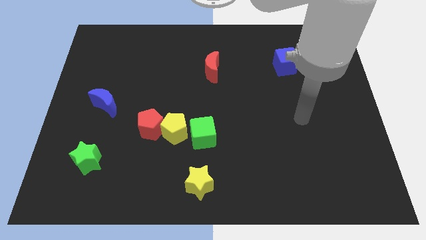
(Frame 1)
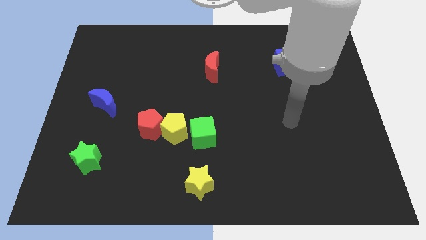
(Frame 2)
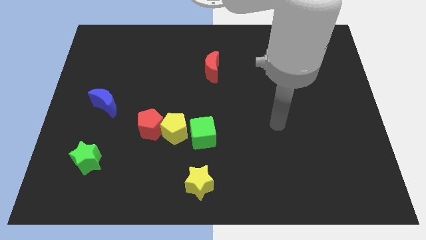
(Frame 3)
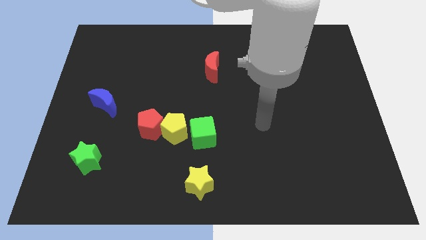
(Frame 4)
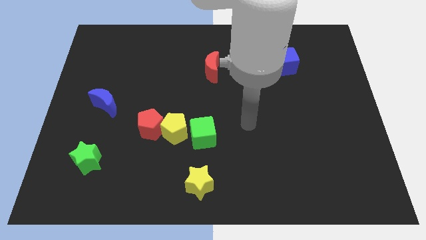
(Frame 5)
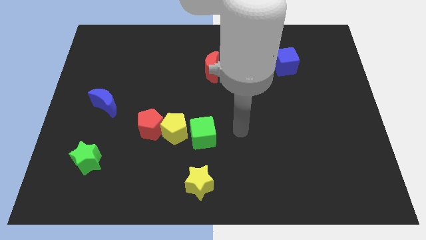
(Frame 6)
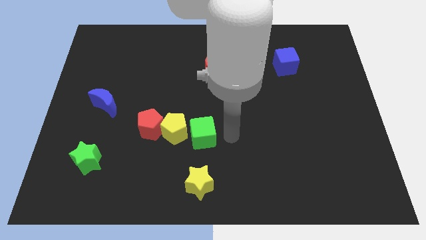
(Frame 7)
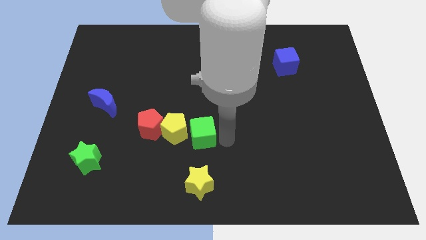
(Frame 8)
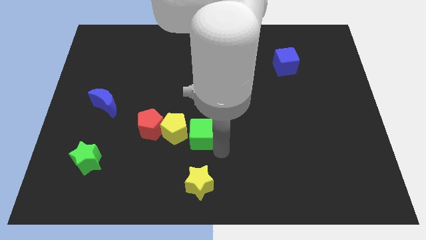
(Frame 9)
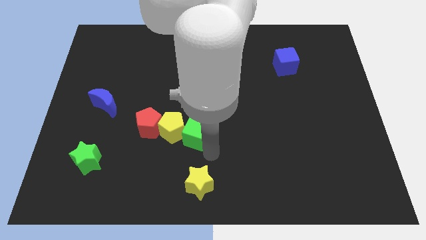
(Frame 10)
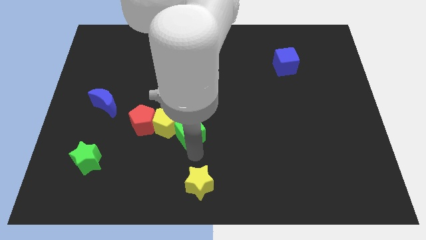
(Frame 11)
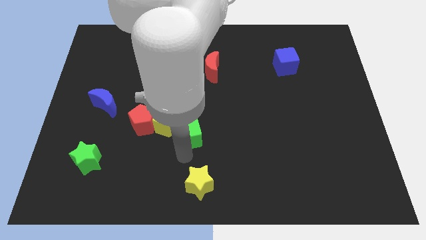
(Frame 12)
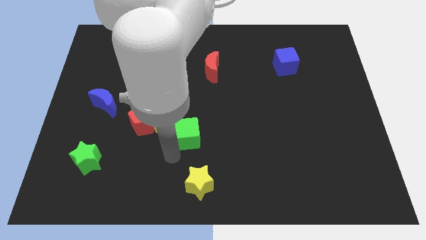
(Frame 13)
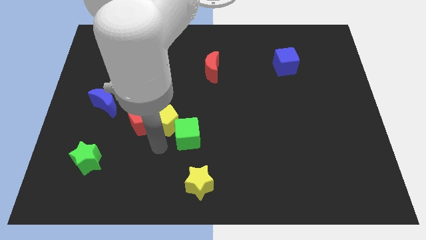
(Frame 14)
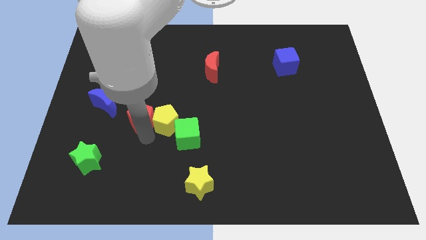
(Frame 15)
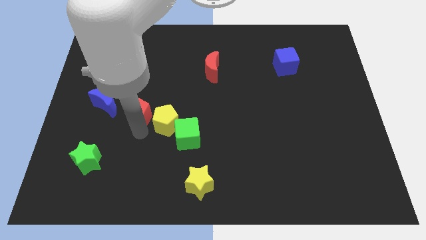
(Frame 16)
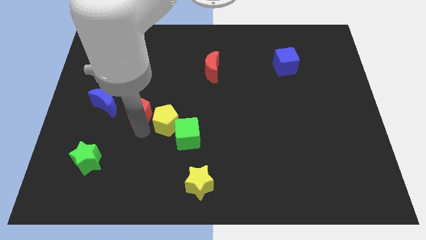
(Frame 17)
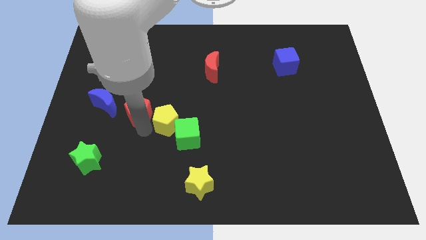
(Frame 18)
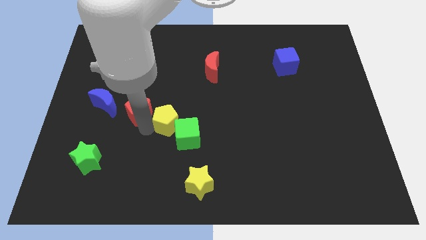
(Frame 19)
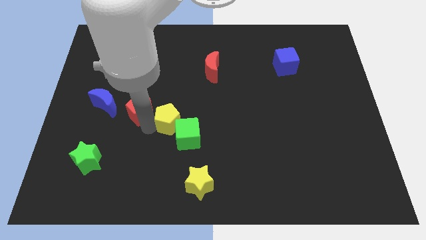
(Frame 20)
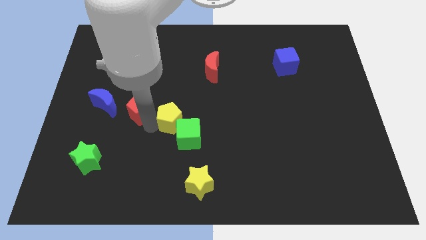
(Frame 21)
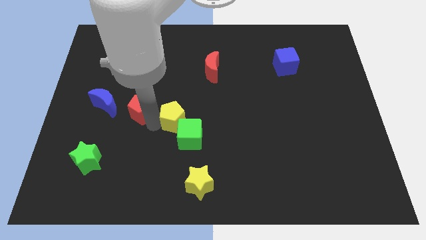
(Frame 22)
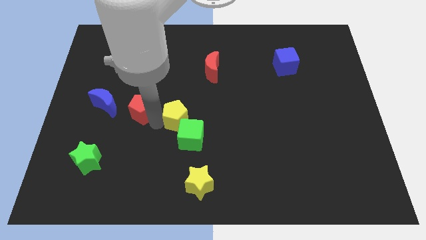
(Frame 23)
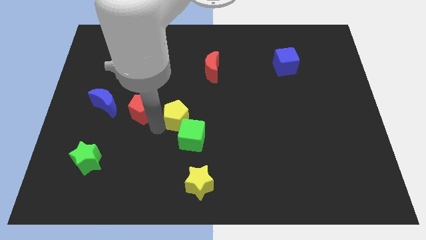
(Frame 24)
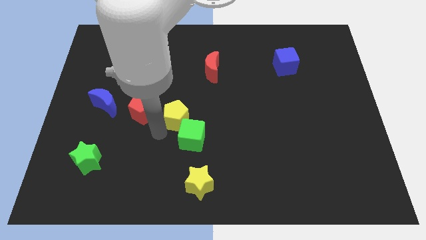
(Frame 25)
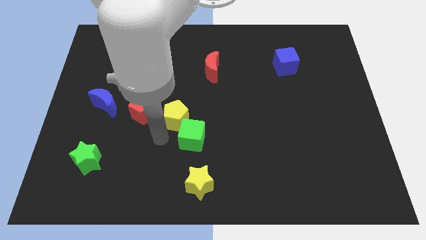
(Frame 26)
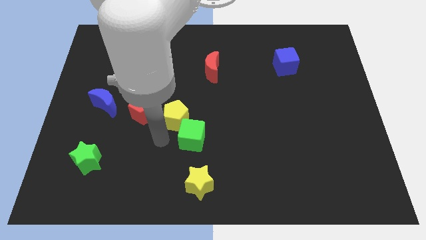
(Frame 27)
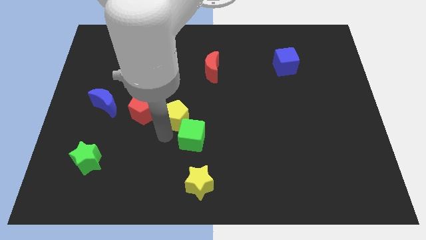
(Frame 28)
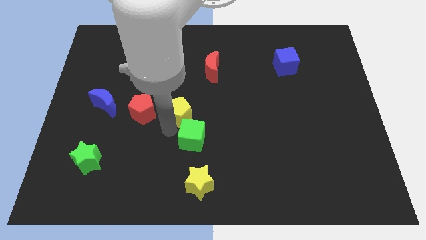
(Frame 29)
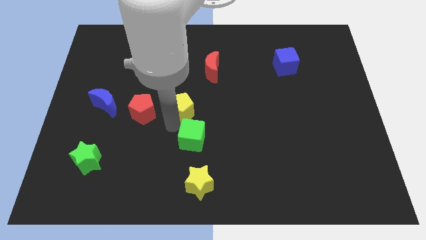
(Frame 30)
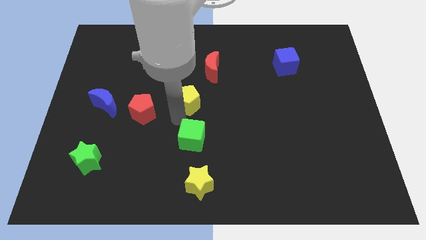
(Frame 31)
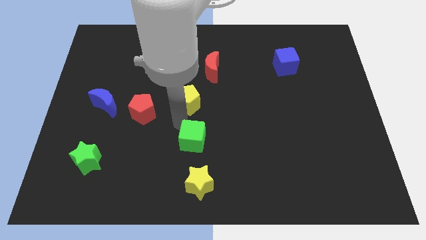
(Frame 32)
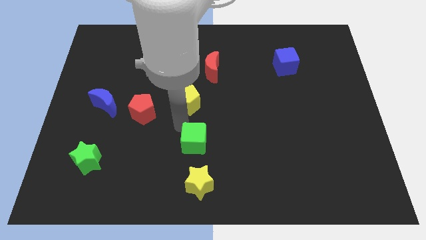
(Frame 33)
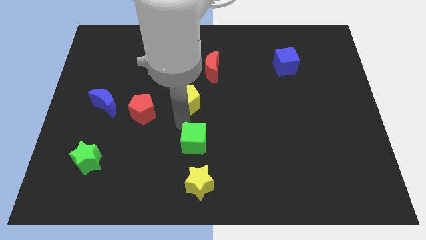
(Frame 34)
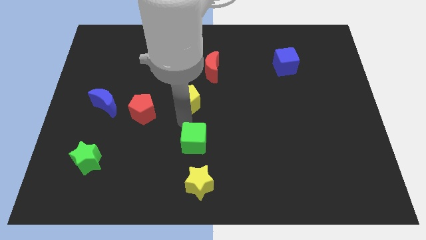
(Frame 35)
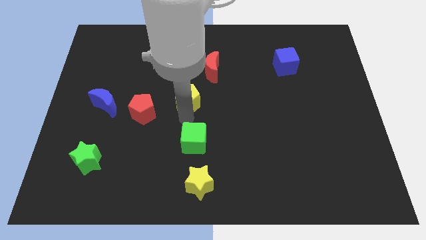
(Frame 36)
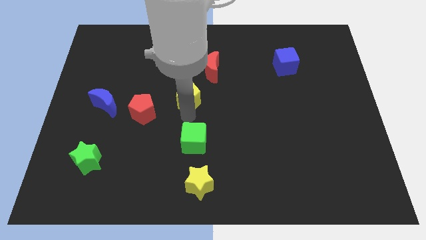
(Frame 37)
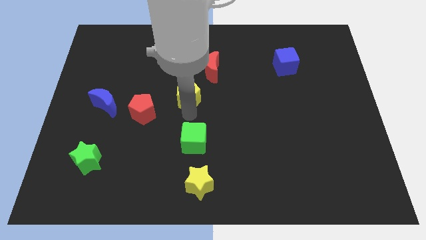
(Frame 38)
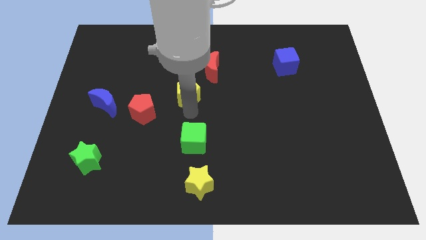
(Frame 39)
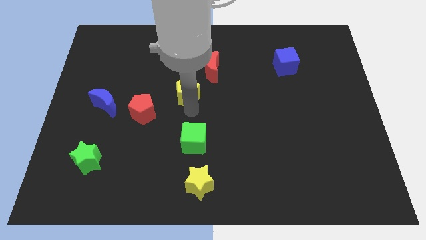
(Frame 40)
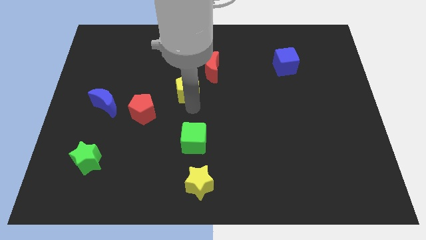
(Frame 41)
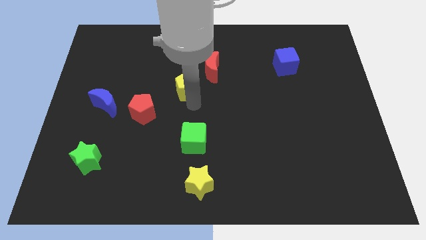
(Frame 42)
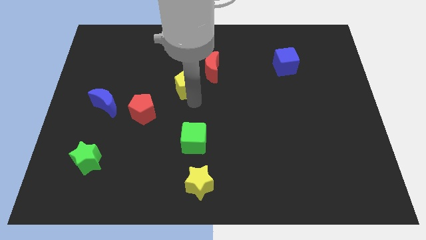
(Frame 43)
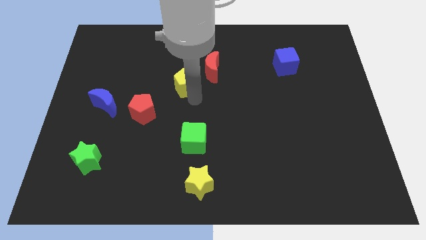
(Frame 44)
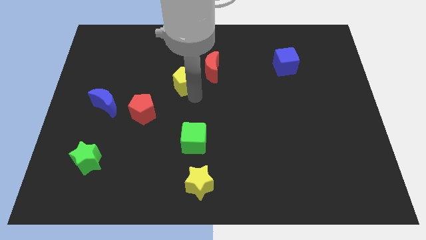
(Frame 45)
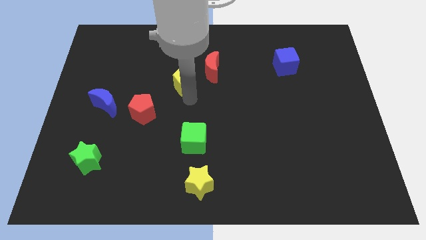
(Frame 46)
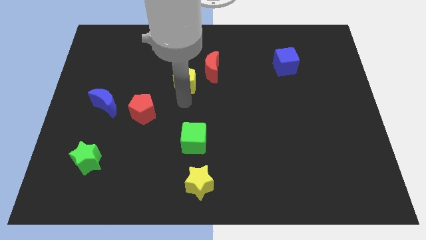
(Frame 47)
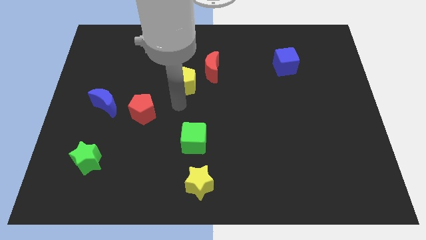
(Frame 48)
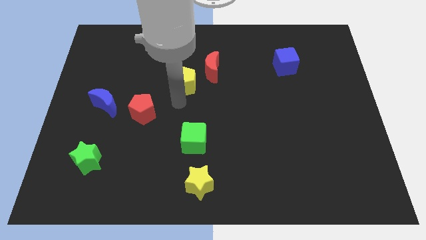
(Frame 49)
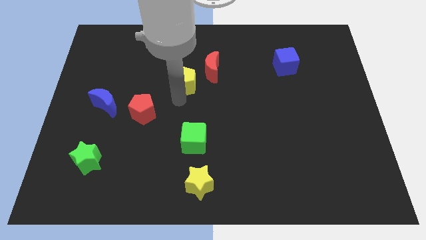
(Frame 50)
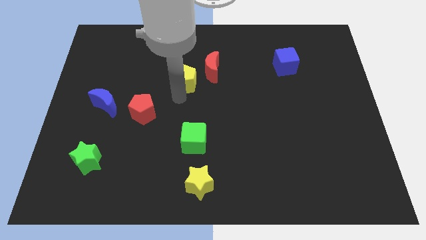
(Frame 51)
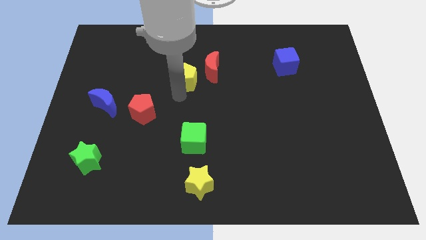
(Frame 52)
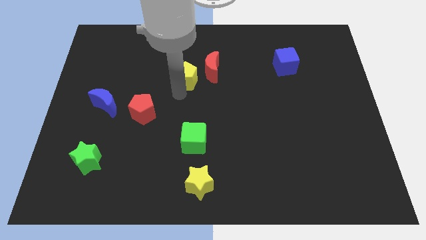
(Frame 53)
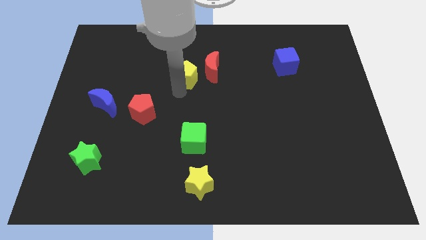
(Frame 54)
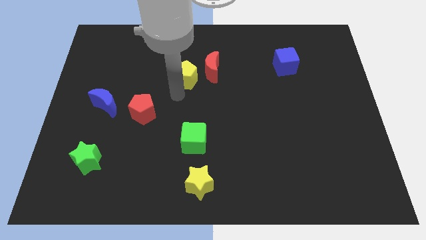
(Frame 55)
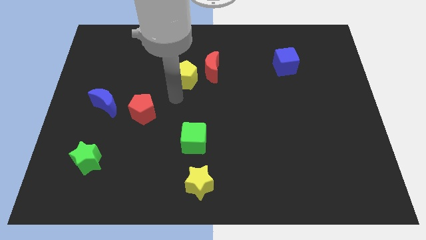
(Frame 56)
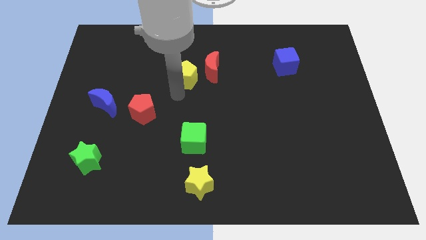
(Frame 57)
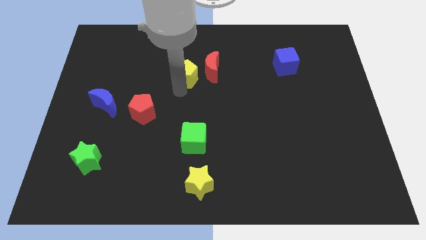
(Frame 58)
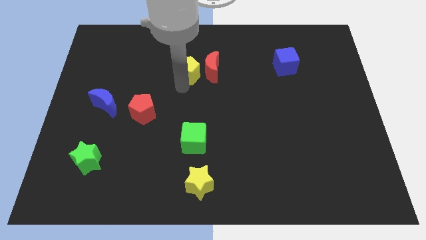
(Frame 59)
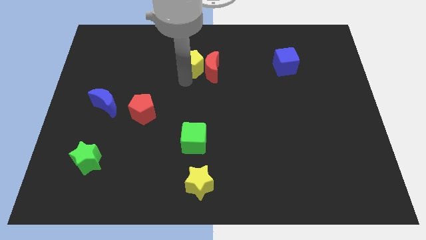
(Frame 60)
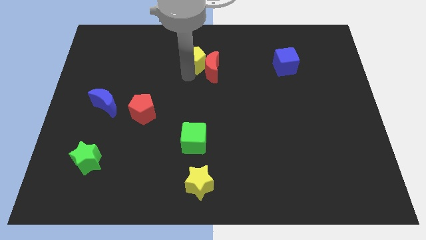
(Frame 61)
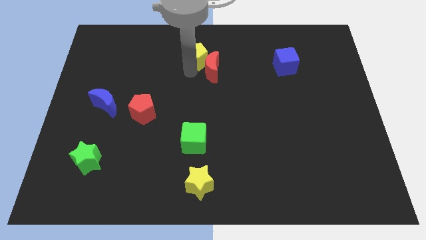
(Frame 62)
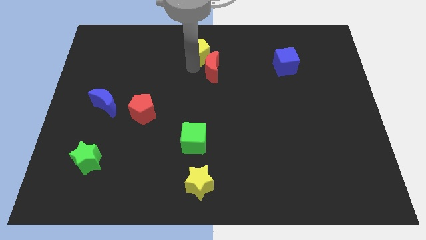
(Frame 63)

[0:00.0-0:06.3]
slide the yellow pentagon to the top
